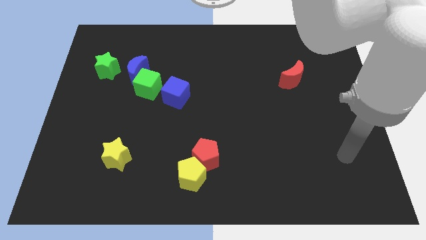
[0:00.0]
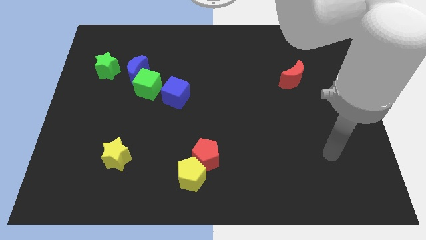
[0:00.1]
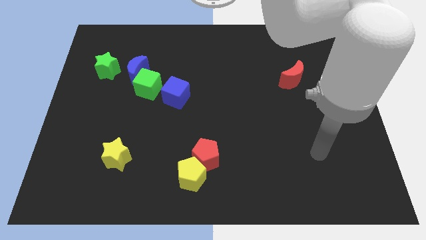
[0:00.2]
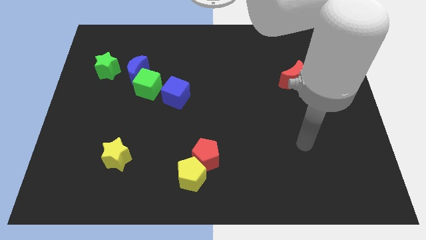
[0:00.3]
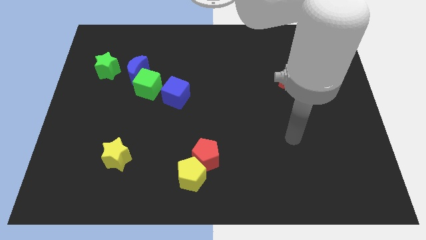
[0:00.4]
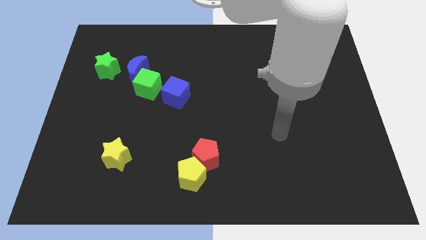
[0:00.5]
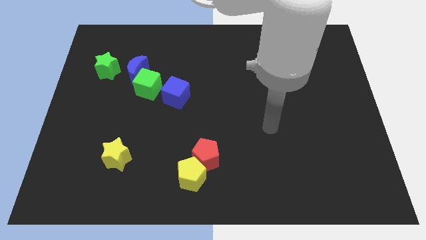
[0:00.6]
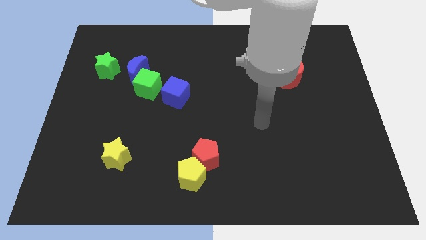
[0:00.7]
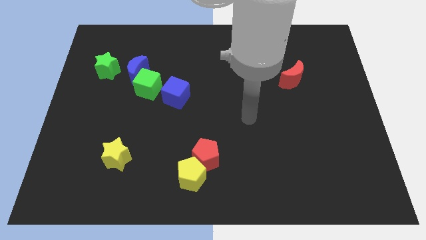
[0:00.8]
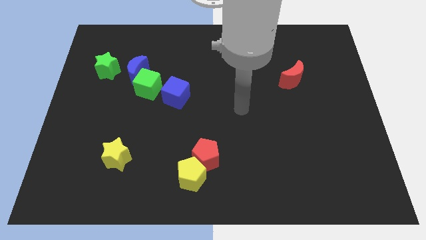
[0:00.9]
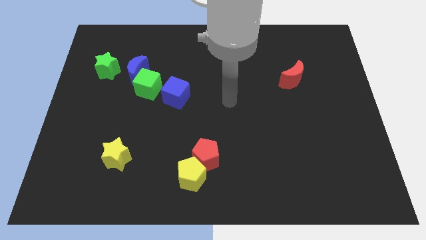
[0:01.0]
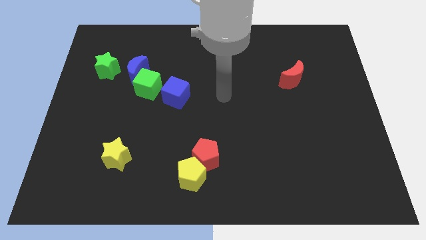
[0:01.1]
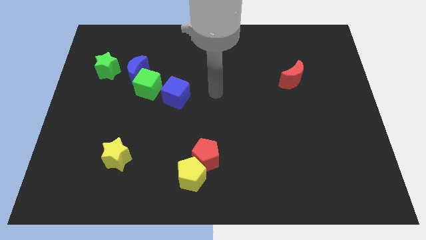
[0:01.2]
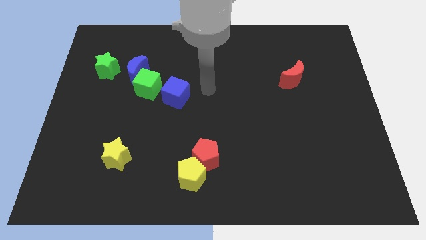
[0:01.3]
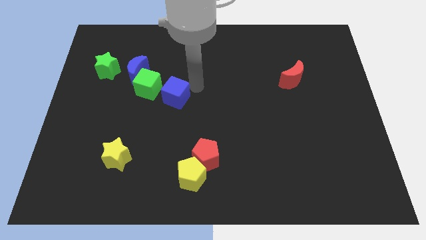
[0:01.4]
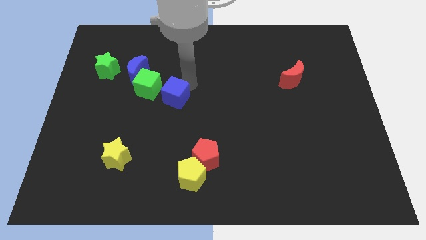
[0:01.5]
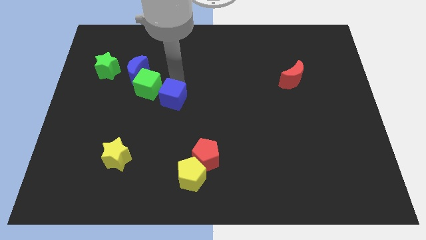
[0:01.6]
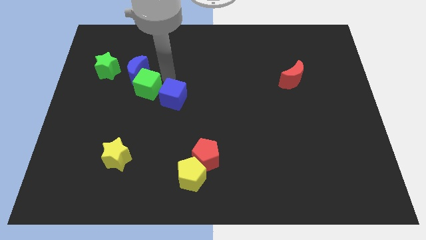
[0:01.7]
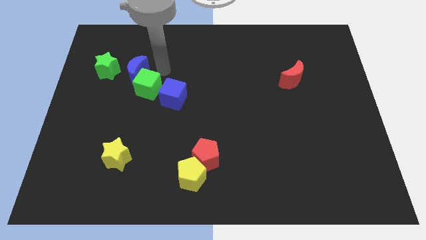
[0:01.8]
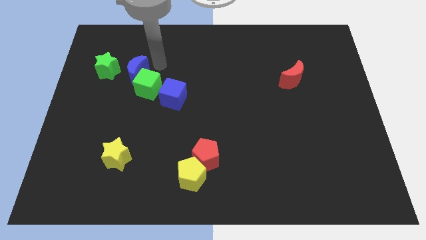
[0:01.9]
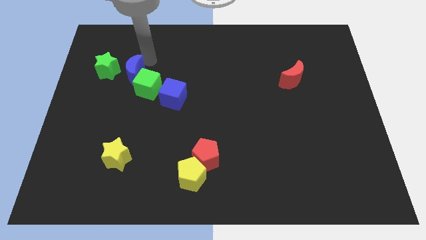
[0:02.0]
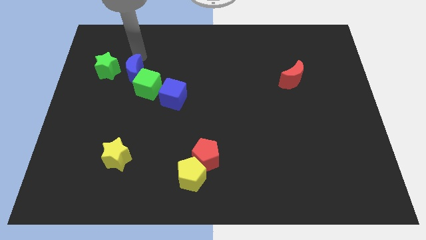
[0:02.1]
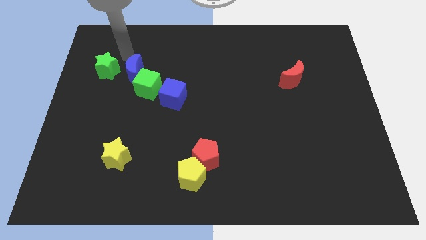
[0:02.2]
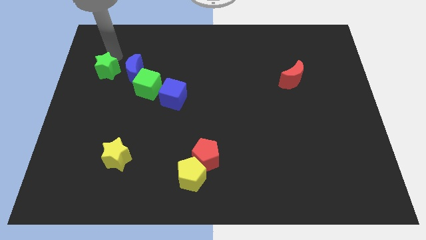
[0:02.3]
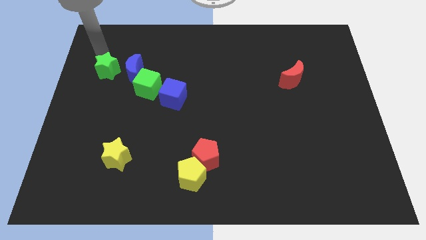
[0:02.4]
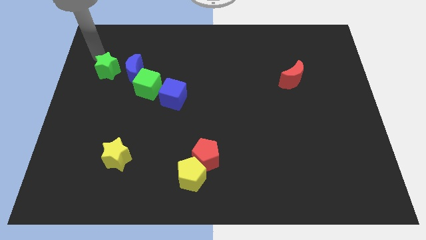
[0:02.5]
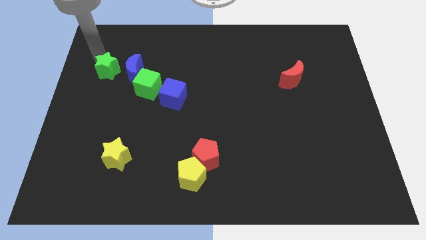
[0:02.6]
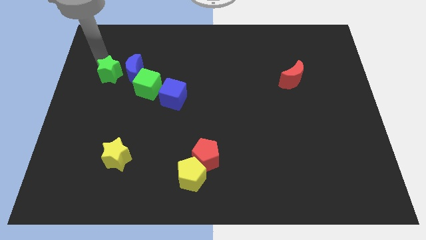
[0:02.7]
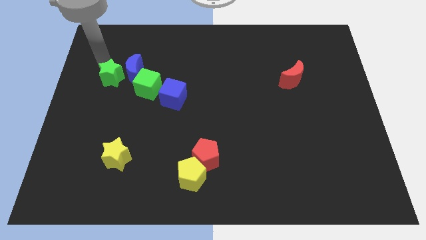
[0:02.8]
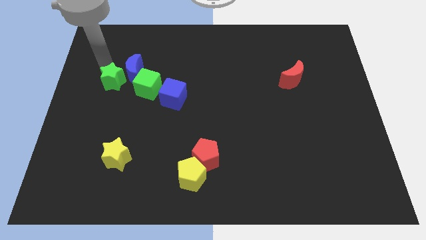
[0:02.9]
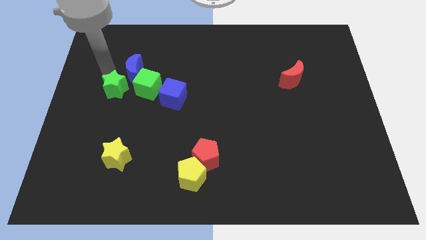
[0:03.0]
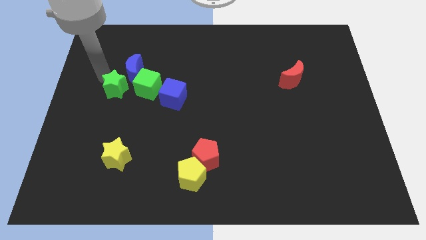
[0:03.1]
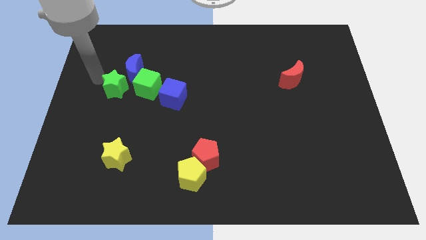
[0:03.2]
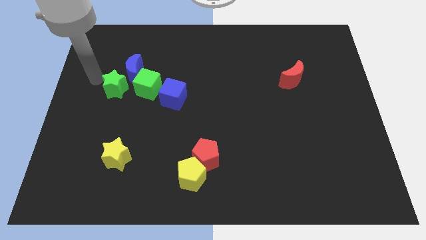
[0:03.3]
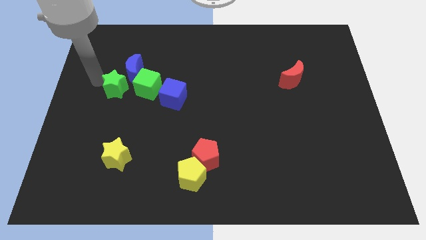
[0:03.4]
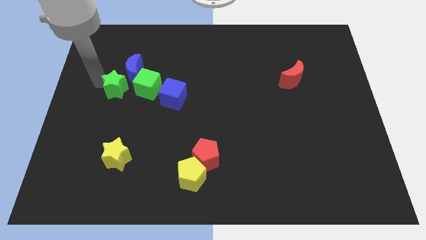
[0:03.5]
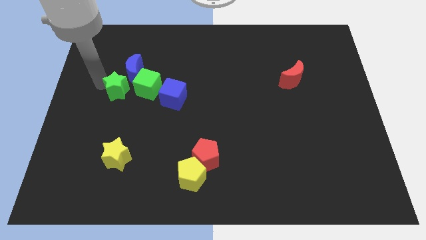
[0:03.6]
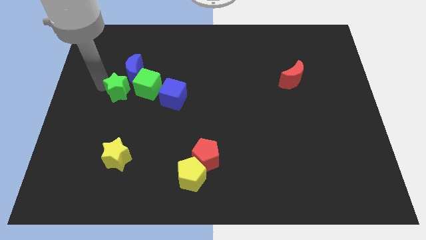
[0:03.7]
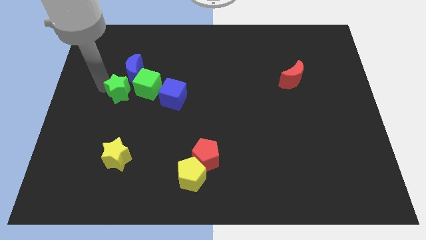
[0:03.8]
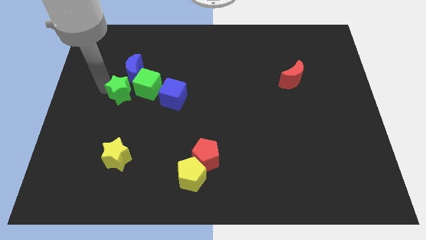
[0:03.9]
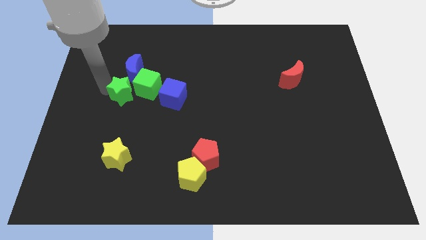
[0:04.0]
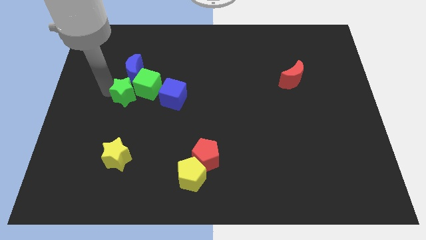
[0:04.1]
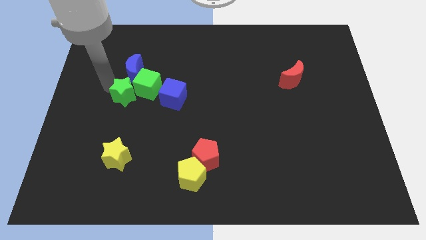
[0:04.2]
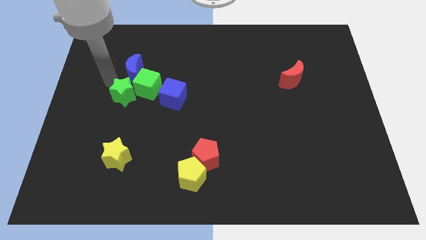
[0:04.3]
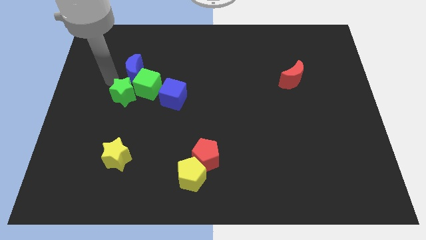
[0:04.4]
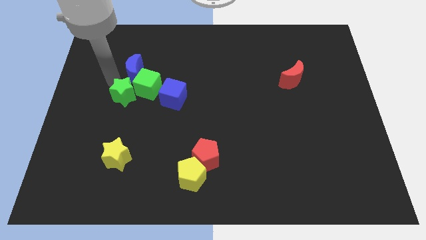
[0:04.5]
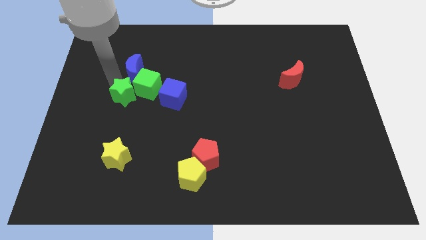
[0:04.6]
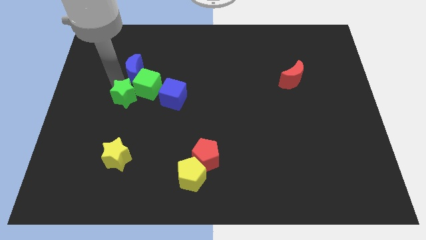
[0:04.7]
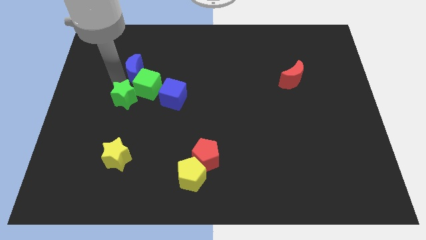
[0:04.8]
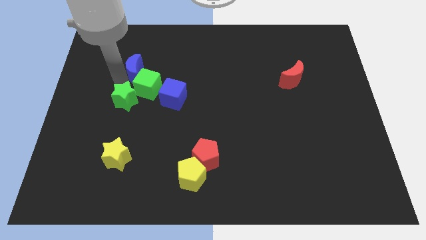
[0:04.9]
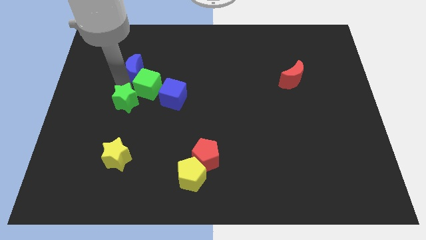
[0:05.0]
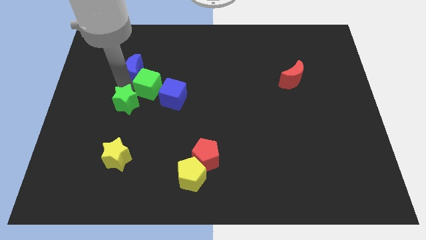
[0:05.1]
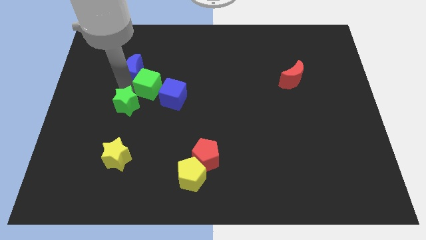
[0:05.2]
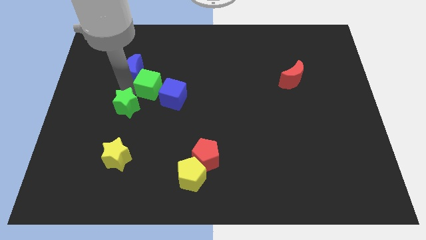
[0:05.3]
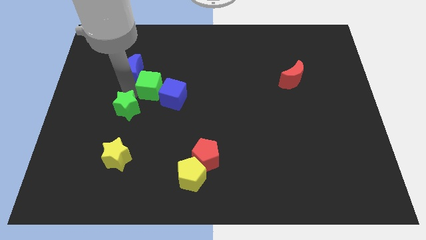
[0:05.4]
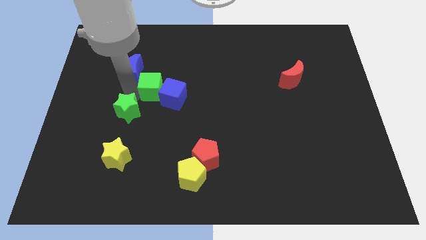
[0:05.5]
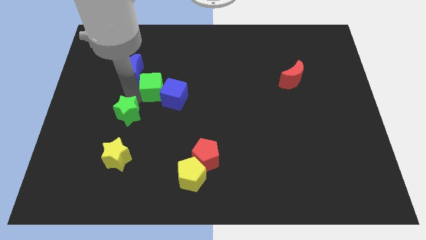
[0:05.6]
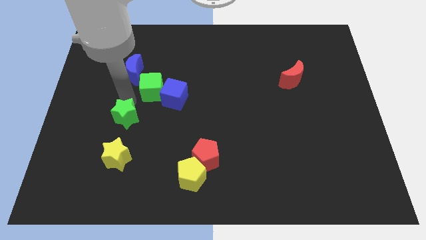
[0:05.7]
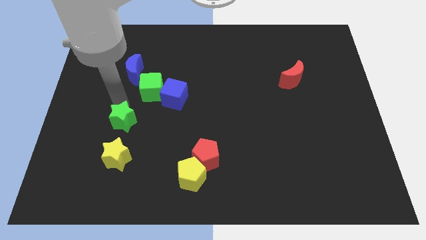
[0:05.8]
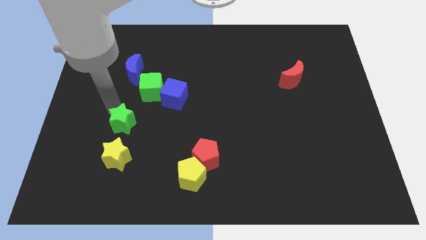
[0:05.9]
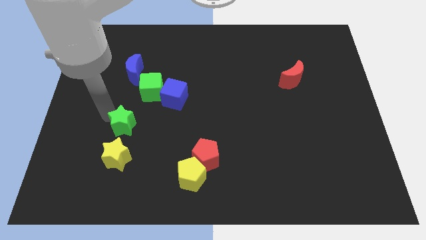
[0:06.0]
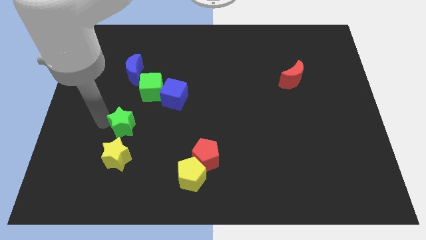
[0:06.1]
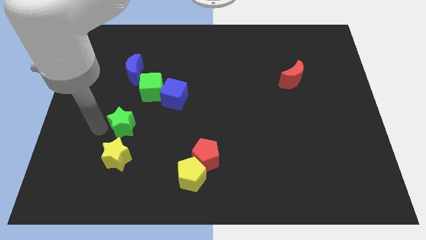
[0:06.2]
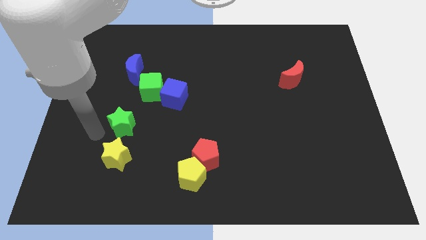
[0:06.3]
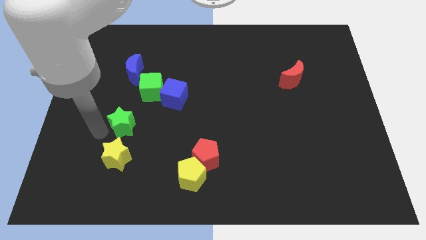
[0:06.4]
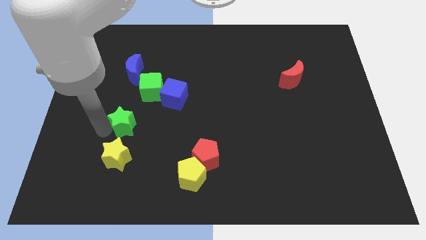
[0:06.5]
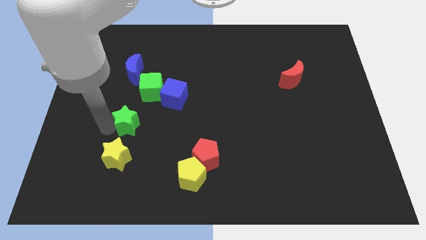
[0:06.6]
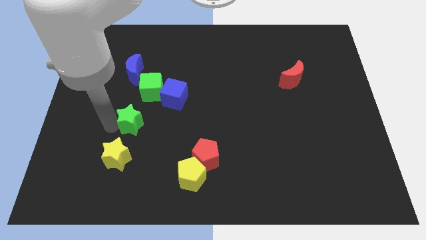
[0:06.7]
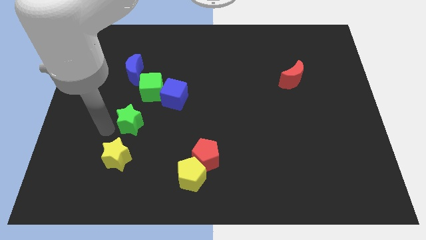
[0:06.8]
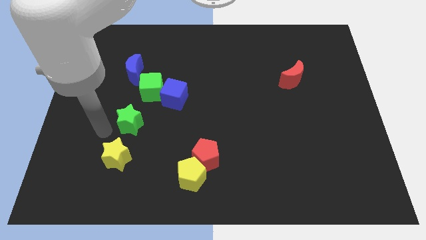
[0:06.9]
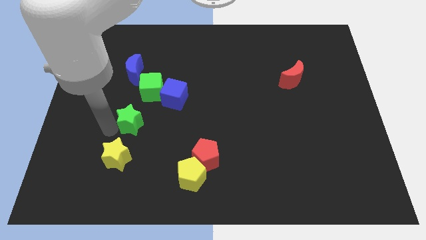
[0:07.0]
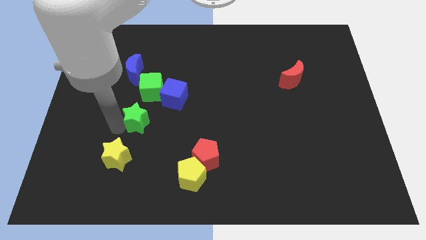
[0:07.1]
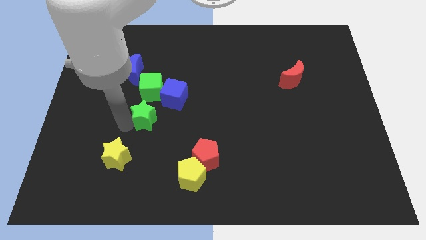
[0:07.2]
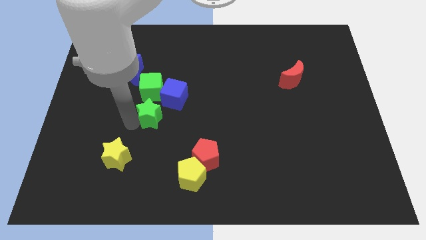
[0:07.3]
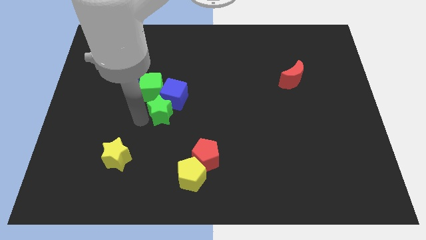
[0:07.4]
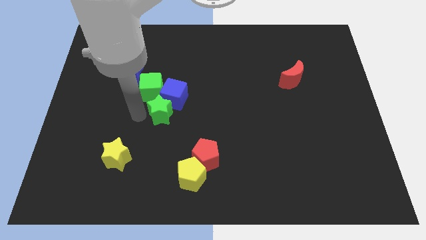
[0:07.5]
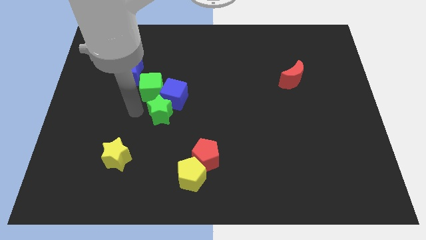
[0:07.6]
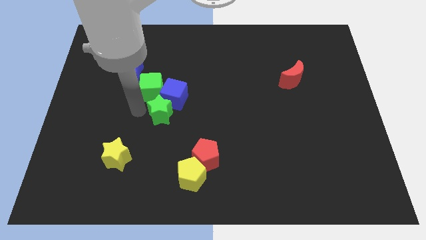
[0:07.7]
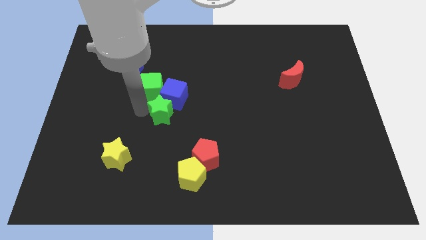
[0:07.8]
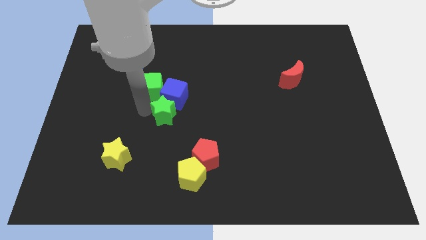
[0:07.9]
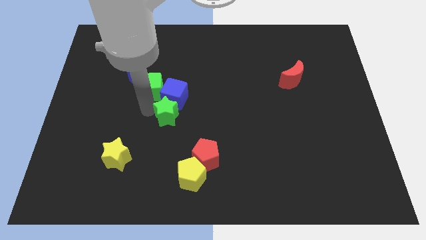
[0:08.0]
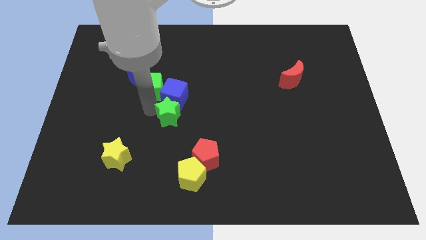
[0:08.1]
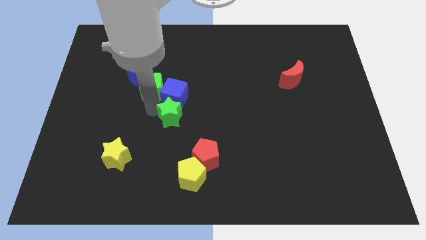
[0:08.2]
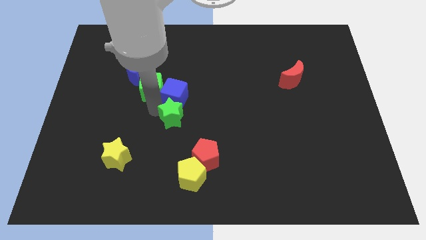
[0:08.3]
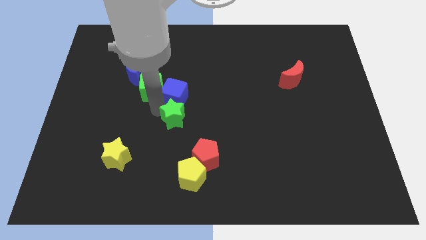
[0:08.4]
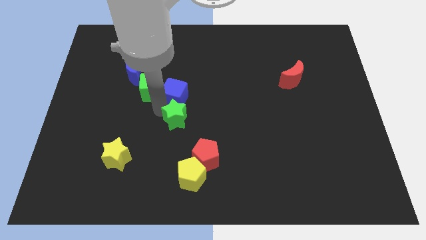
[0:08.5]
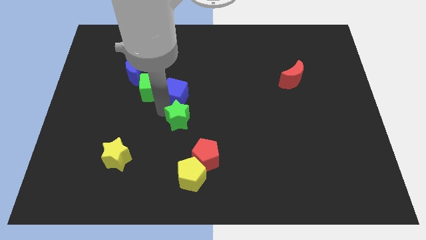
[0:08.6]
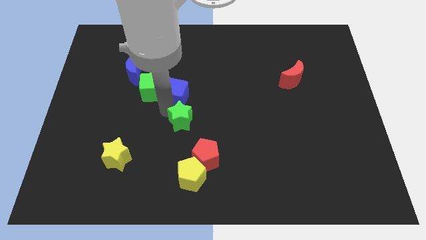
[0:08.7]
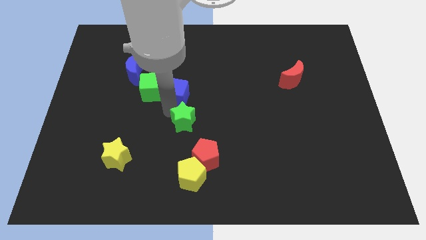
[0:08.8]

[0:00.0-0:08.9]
push the green star above the red pentagon
